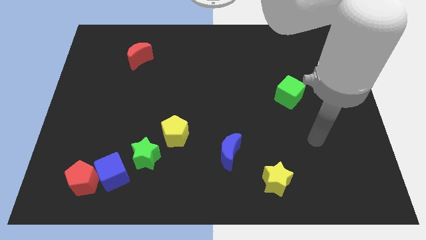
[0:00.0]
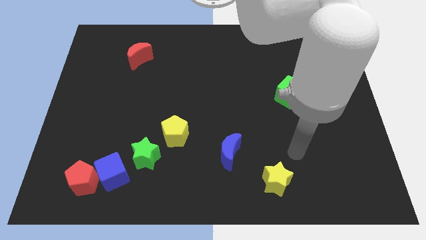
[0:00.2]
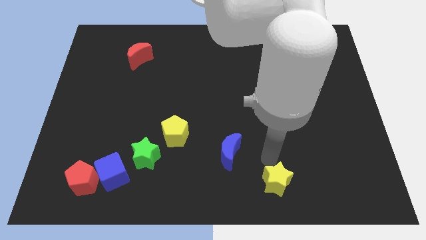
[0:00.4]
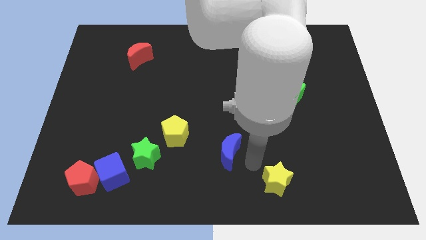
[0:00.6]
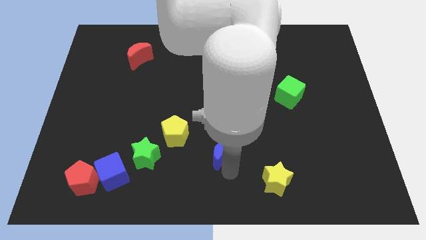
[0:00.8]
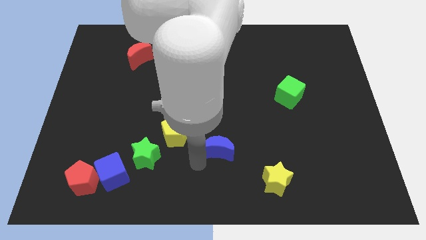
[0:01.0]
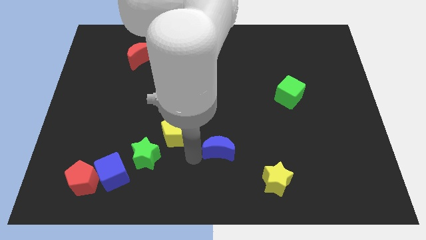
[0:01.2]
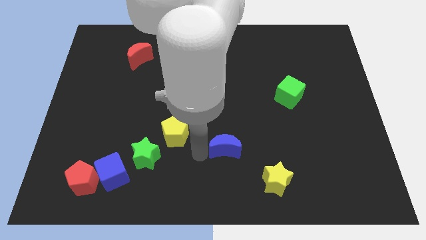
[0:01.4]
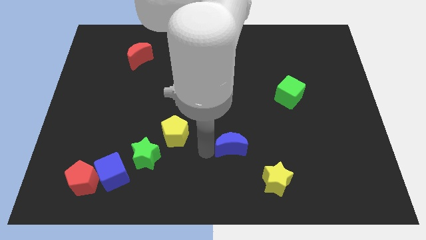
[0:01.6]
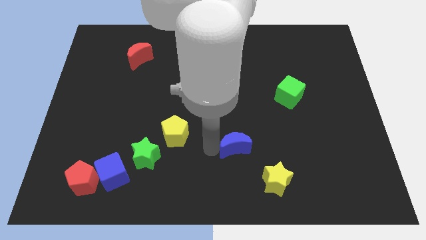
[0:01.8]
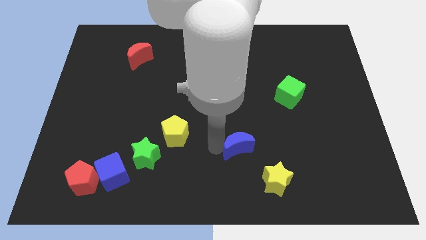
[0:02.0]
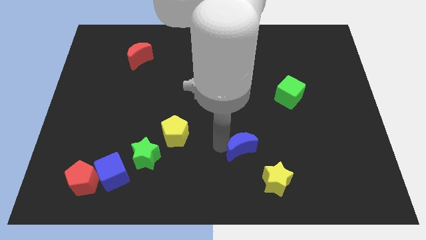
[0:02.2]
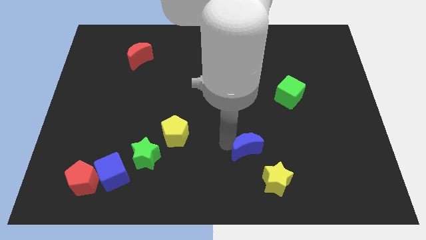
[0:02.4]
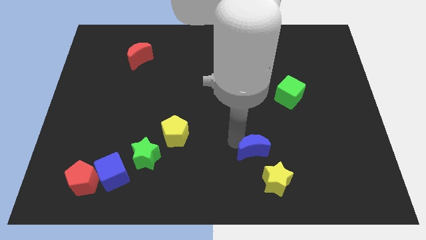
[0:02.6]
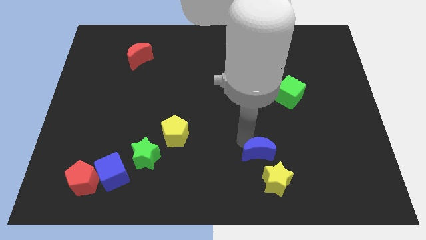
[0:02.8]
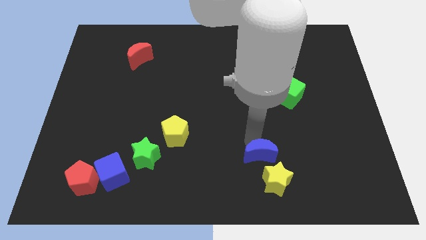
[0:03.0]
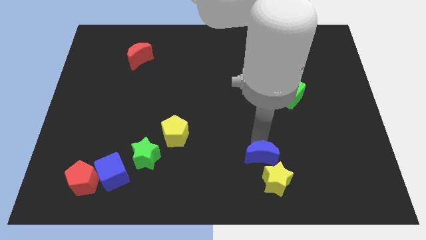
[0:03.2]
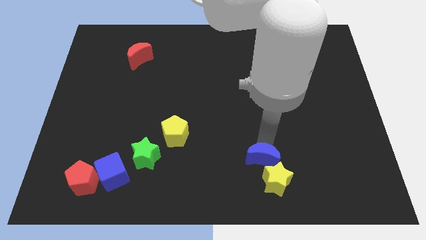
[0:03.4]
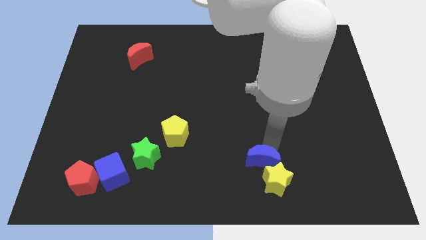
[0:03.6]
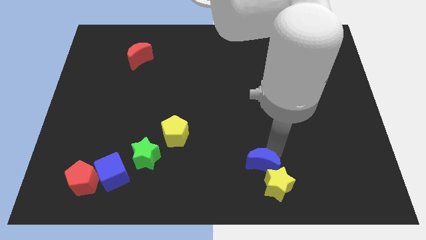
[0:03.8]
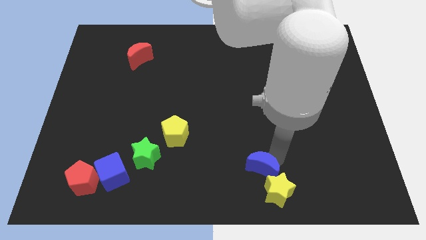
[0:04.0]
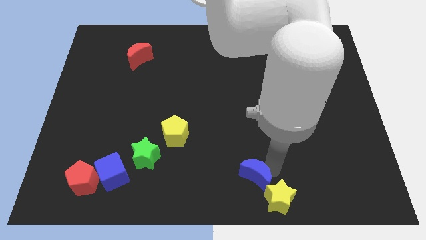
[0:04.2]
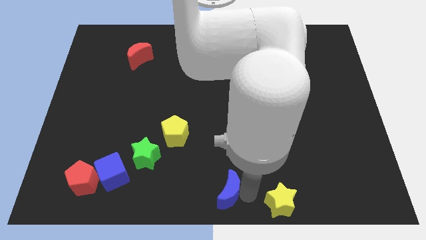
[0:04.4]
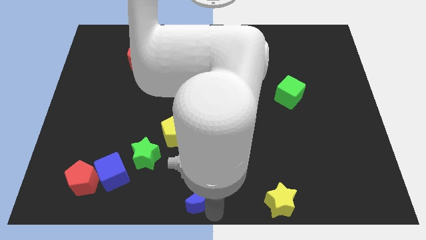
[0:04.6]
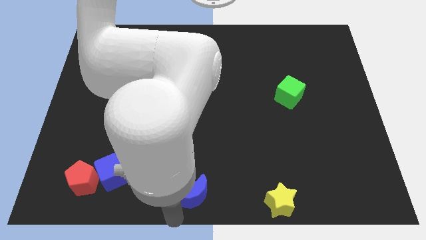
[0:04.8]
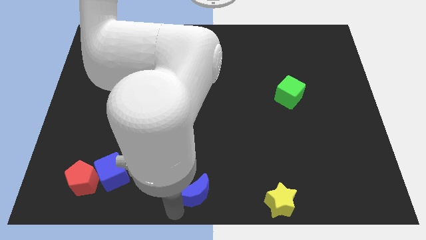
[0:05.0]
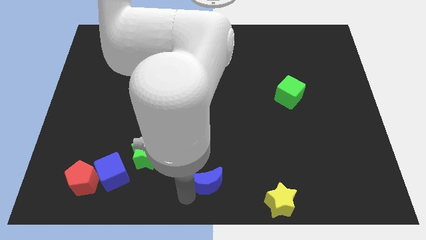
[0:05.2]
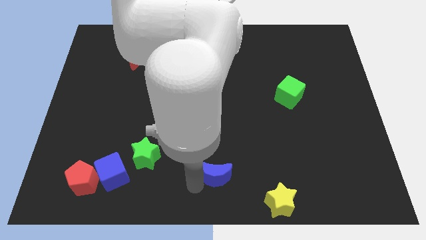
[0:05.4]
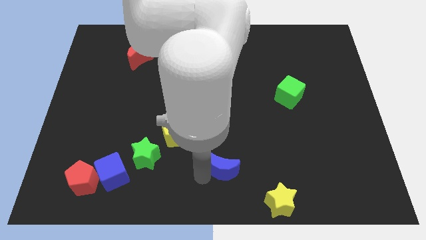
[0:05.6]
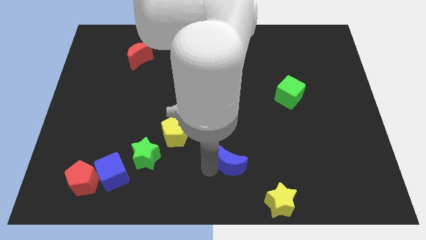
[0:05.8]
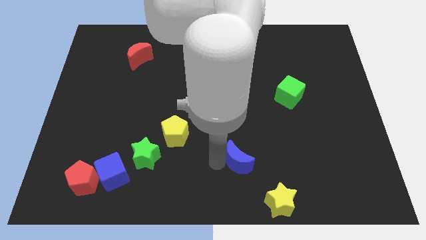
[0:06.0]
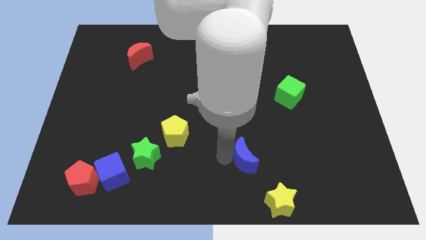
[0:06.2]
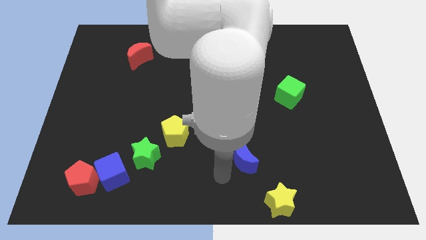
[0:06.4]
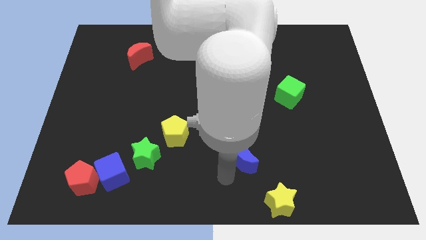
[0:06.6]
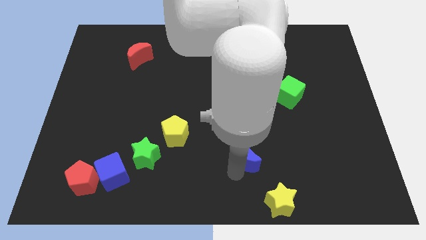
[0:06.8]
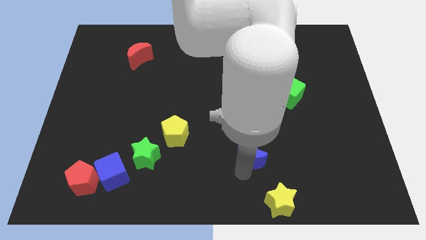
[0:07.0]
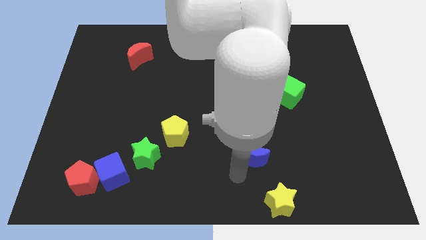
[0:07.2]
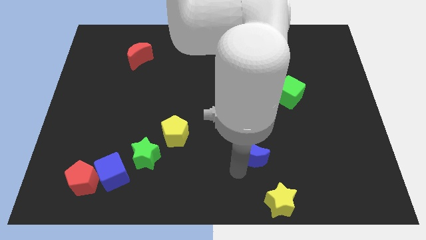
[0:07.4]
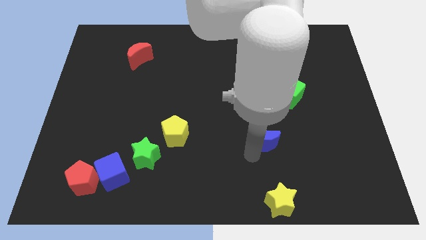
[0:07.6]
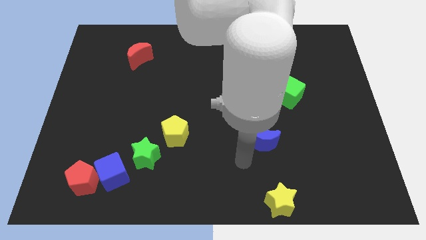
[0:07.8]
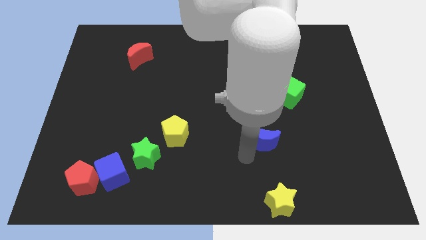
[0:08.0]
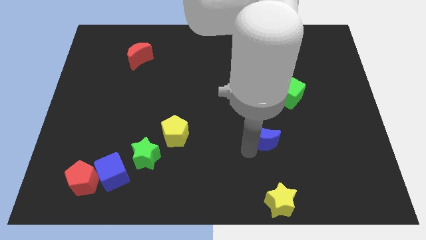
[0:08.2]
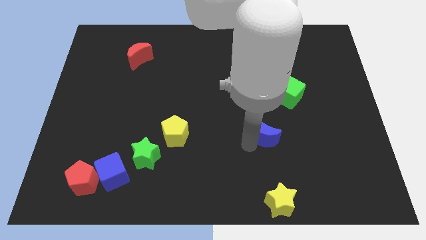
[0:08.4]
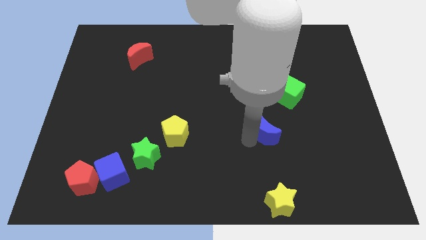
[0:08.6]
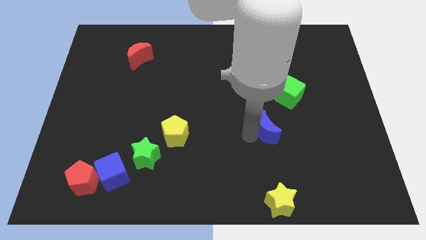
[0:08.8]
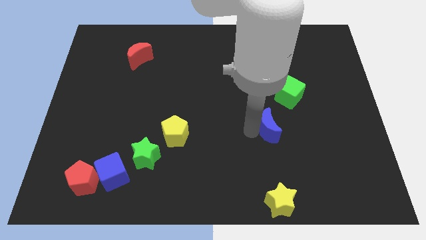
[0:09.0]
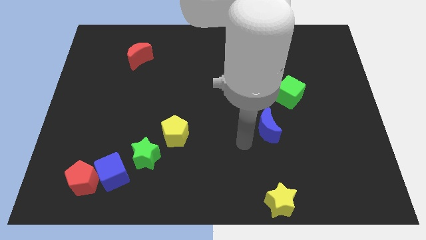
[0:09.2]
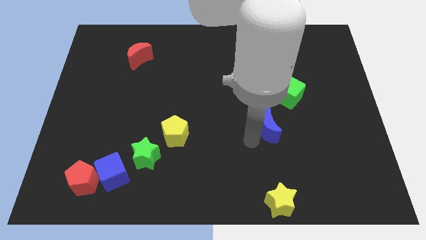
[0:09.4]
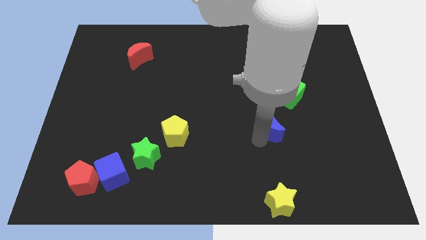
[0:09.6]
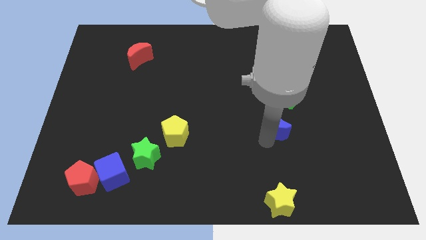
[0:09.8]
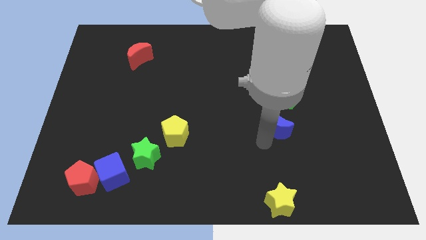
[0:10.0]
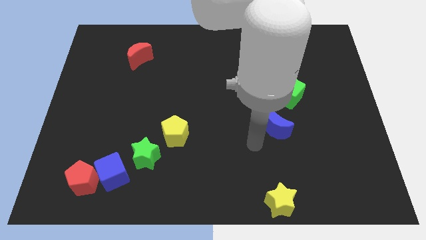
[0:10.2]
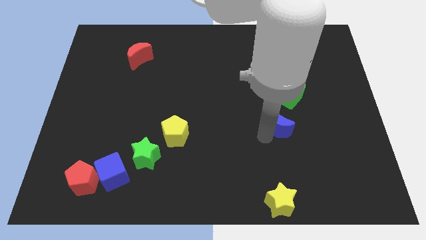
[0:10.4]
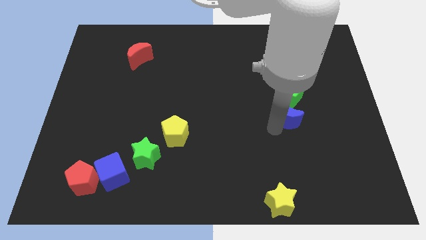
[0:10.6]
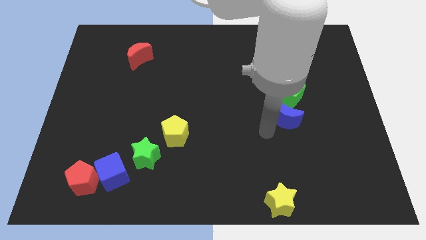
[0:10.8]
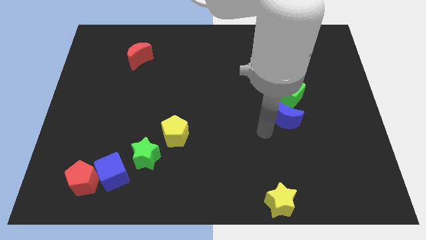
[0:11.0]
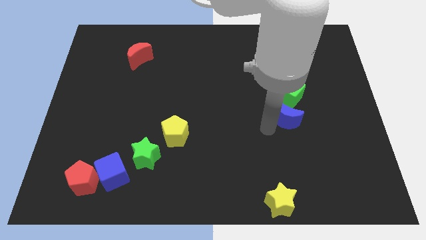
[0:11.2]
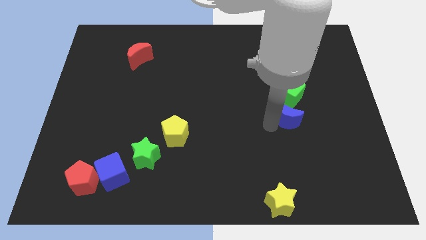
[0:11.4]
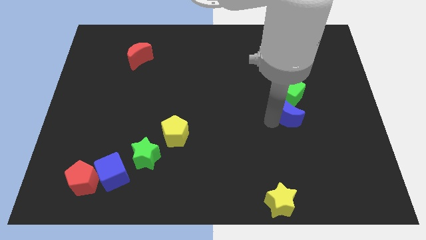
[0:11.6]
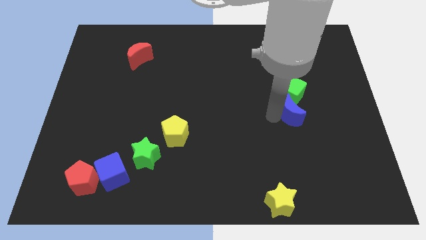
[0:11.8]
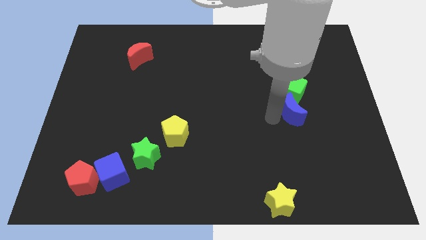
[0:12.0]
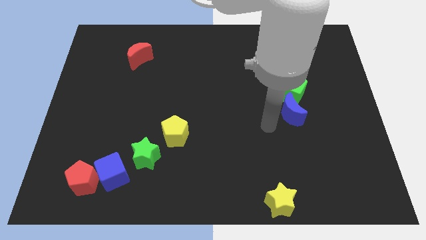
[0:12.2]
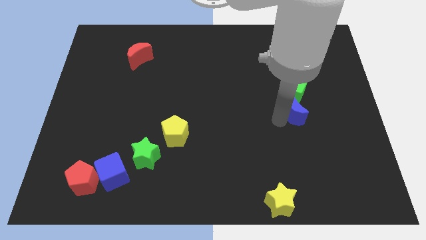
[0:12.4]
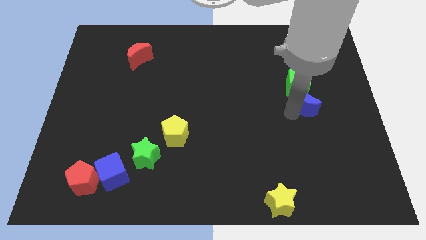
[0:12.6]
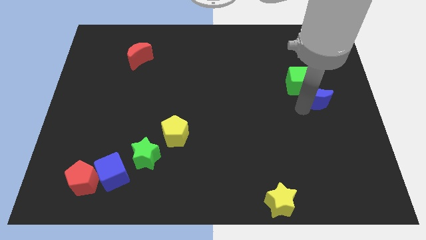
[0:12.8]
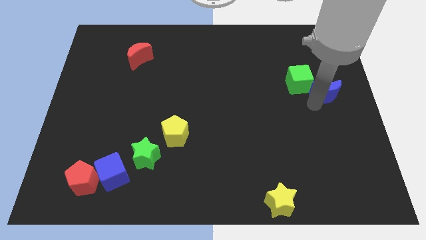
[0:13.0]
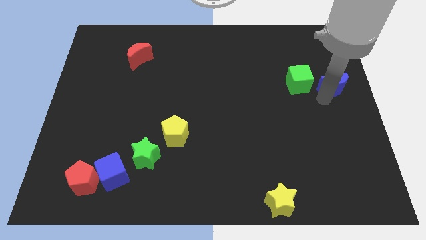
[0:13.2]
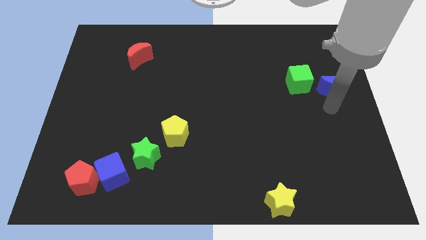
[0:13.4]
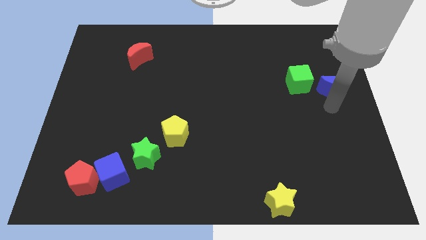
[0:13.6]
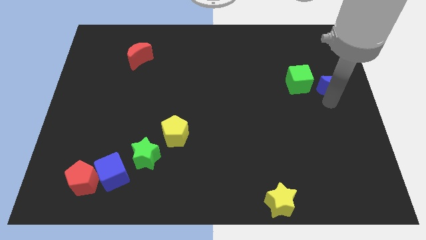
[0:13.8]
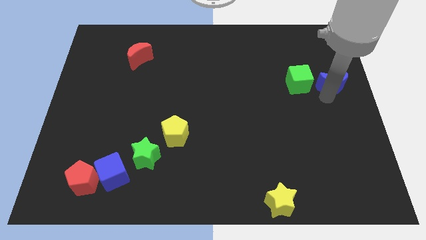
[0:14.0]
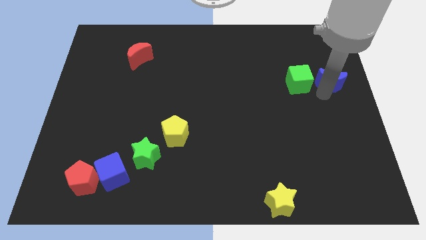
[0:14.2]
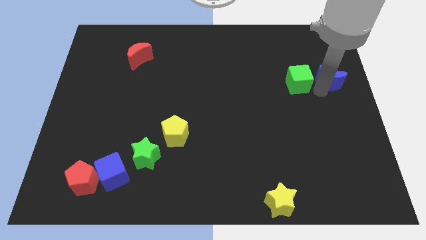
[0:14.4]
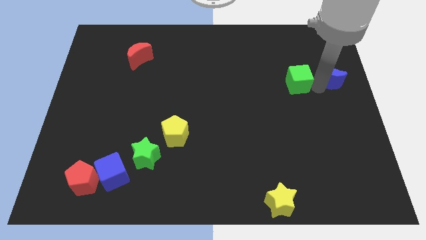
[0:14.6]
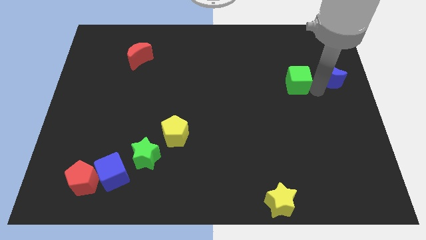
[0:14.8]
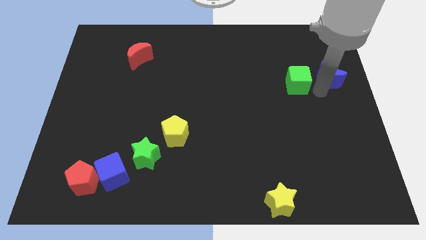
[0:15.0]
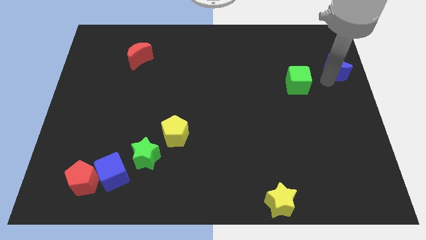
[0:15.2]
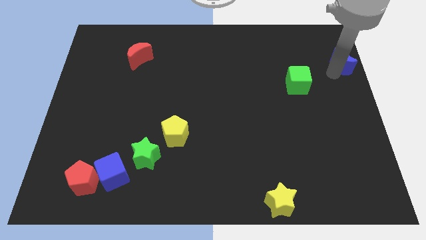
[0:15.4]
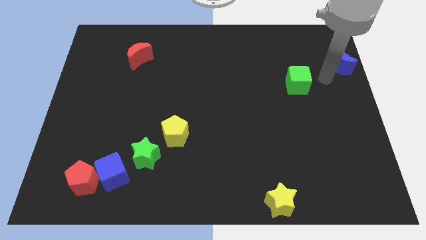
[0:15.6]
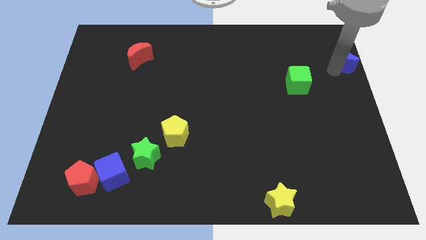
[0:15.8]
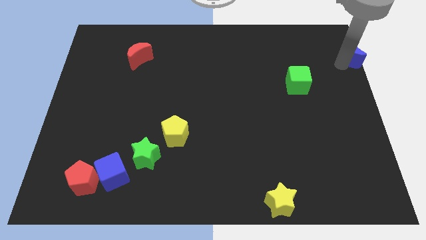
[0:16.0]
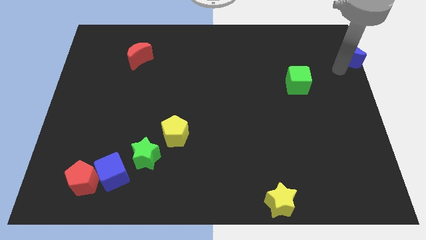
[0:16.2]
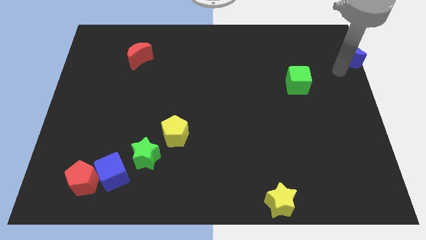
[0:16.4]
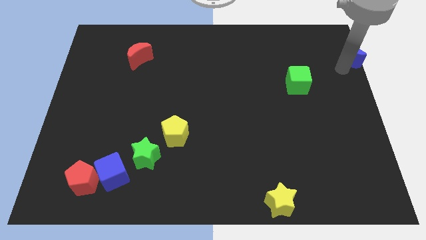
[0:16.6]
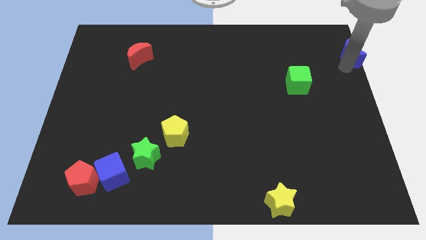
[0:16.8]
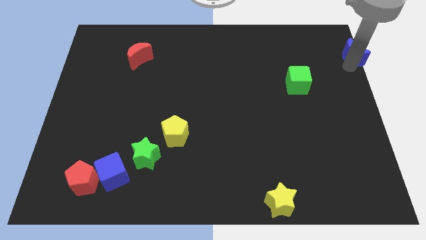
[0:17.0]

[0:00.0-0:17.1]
slide the blue moon to the top right corner
